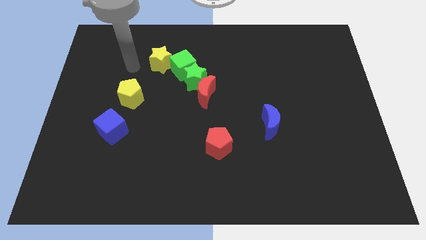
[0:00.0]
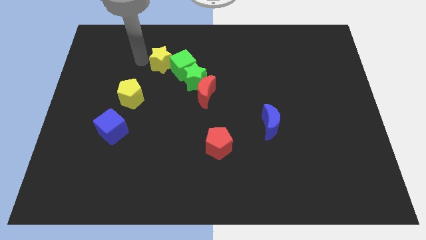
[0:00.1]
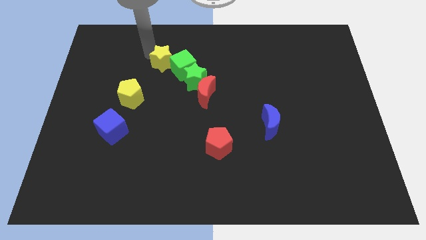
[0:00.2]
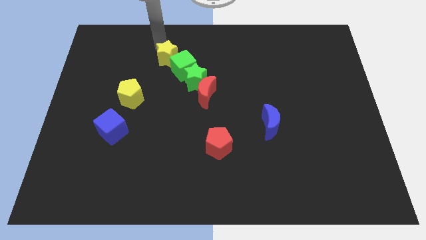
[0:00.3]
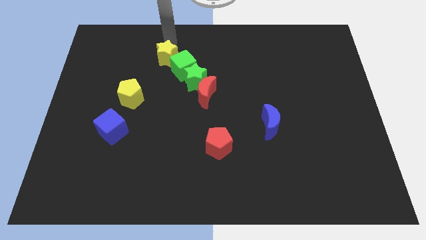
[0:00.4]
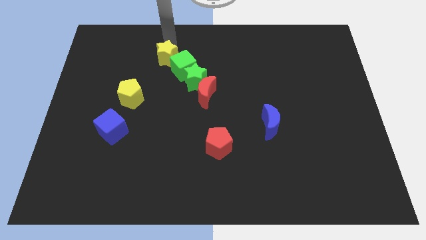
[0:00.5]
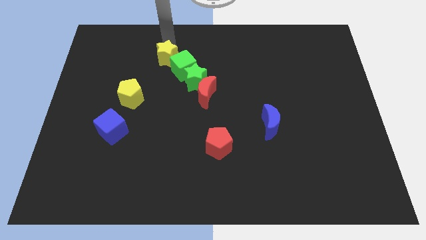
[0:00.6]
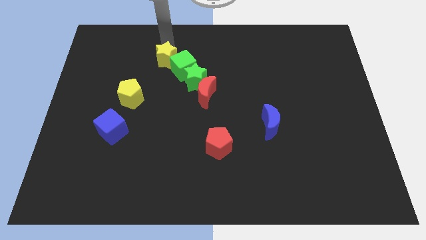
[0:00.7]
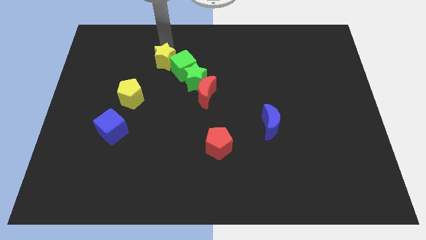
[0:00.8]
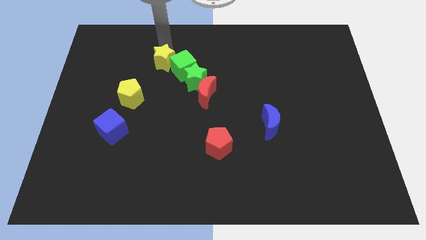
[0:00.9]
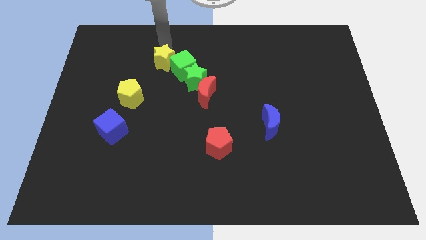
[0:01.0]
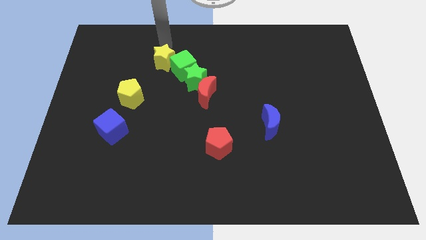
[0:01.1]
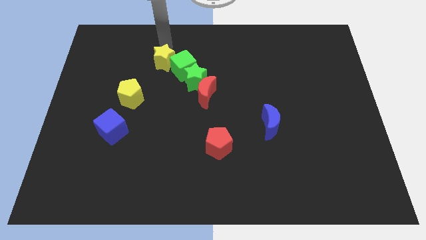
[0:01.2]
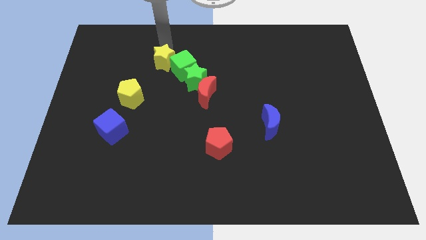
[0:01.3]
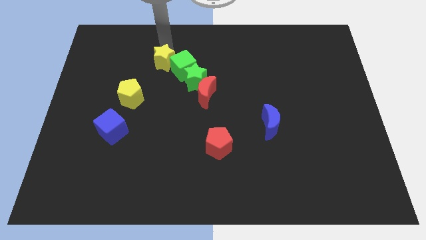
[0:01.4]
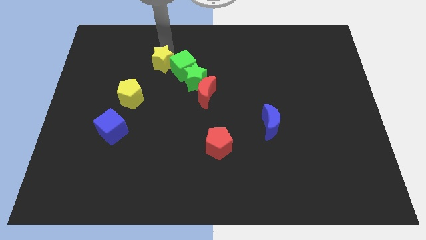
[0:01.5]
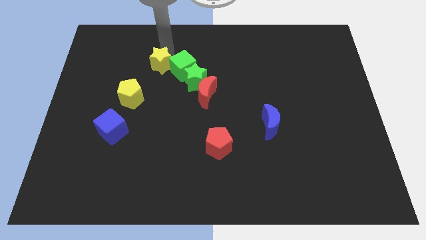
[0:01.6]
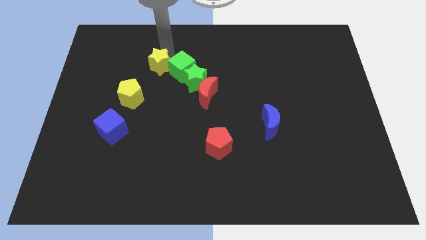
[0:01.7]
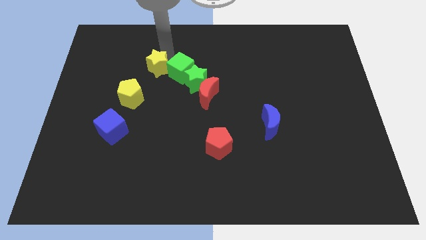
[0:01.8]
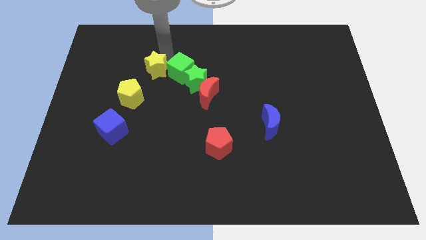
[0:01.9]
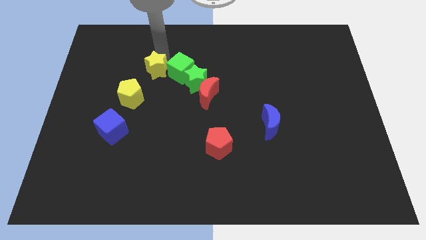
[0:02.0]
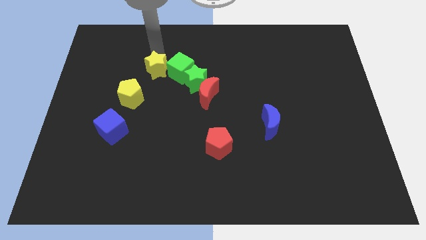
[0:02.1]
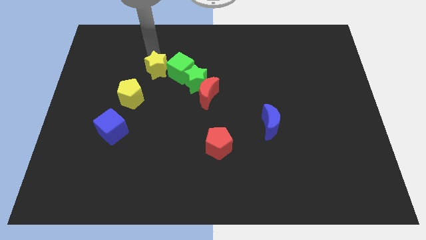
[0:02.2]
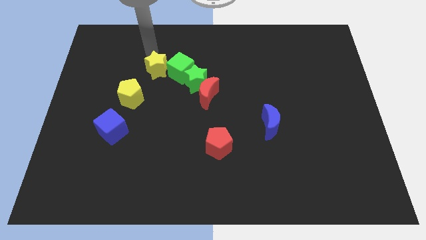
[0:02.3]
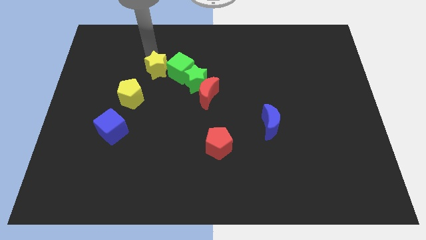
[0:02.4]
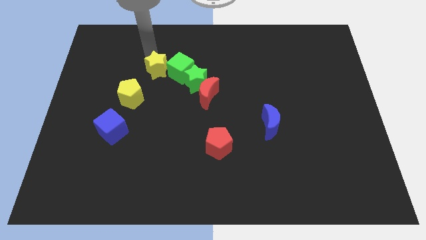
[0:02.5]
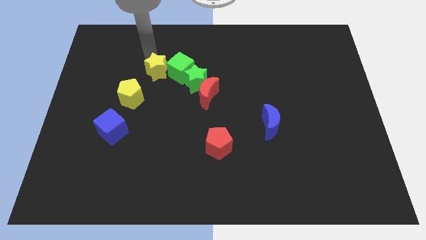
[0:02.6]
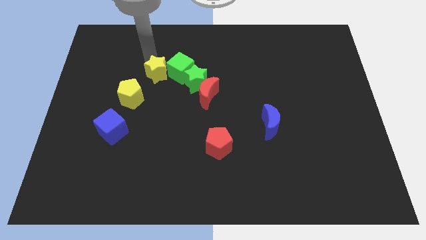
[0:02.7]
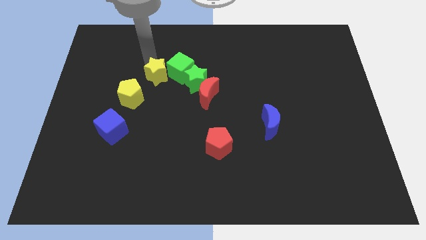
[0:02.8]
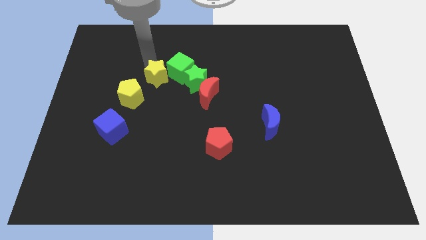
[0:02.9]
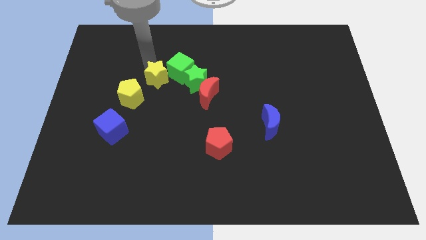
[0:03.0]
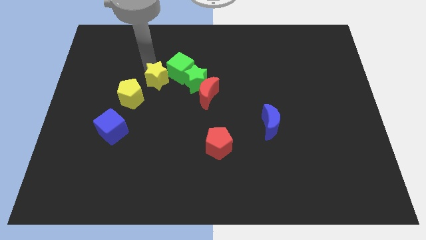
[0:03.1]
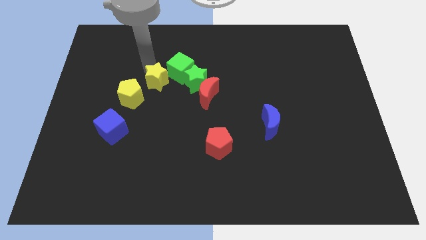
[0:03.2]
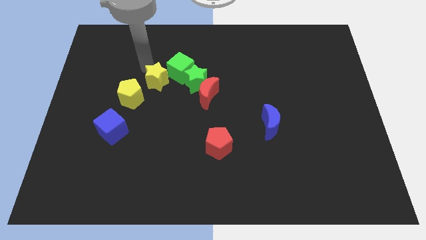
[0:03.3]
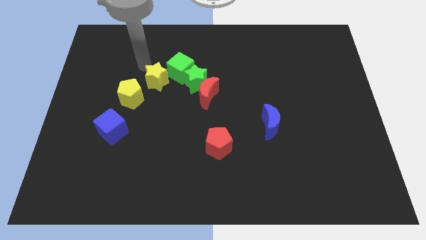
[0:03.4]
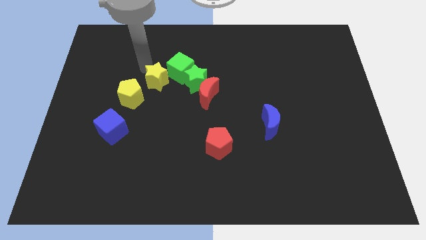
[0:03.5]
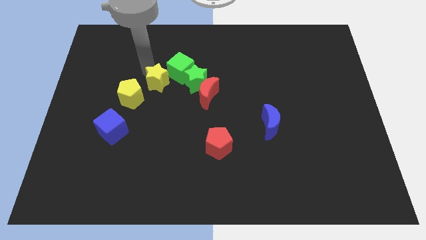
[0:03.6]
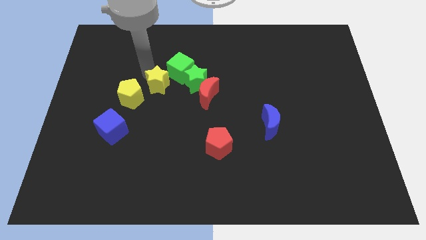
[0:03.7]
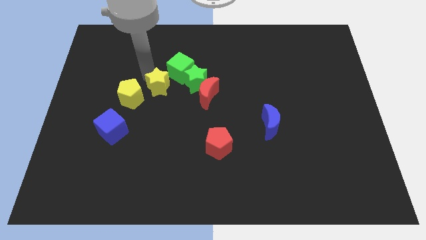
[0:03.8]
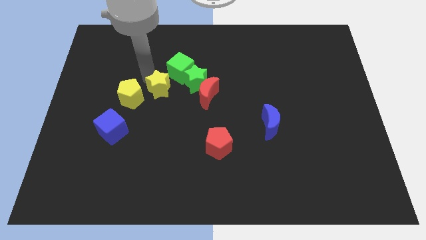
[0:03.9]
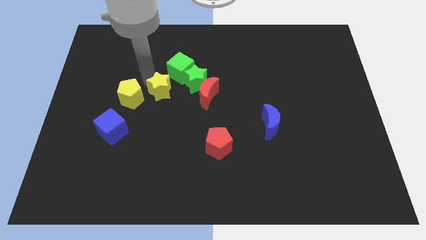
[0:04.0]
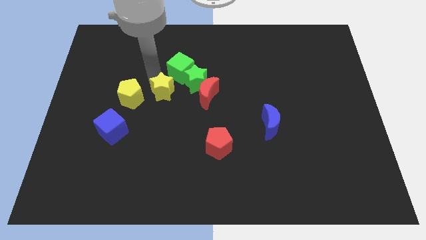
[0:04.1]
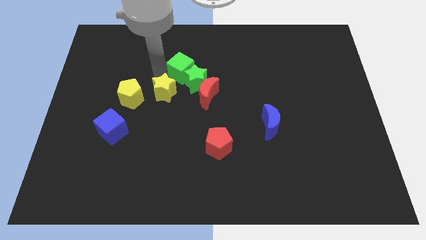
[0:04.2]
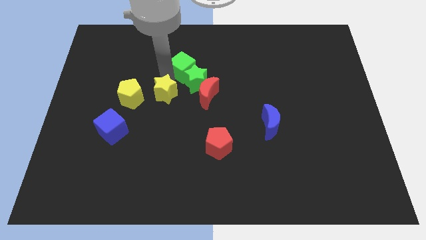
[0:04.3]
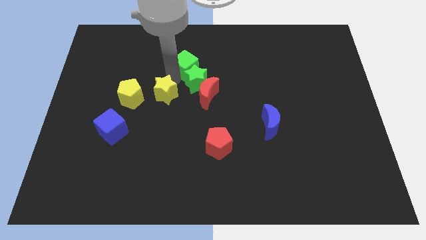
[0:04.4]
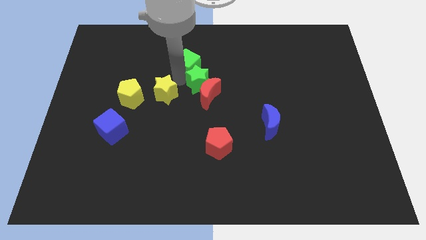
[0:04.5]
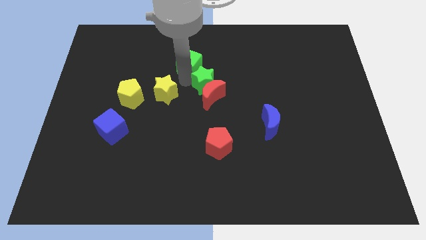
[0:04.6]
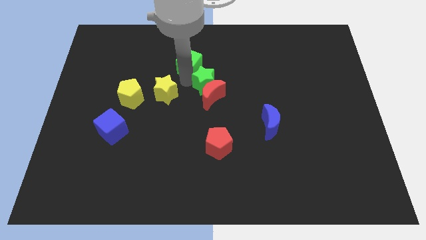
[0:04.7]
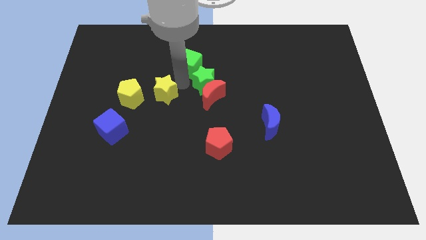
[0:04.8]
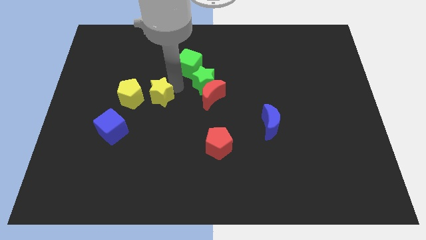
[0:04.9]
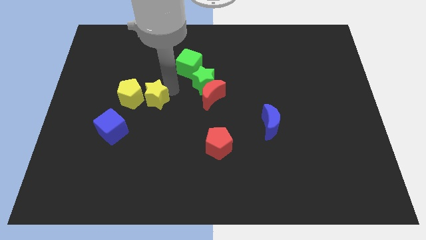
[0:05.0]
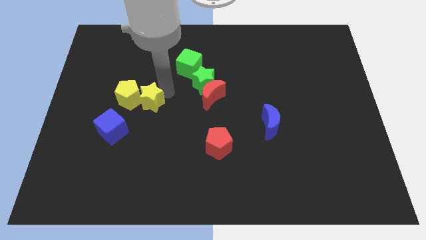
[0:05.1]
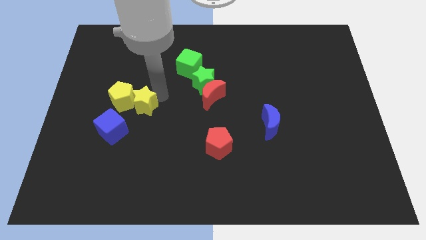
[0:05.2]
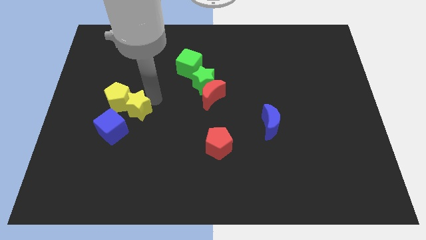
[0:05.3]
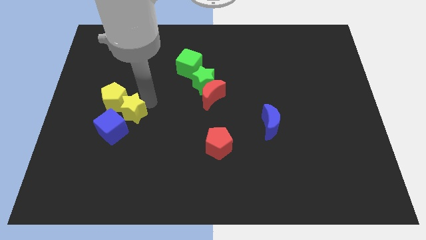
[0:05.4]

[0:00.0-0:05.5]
put the yellow star next to the blue cube

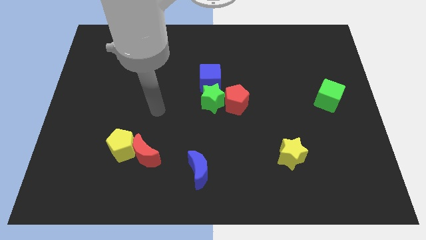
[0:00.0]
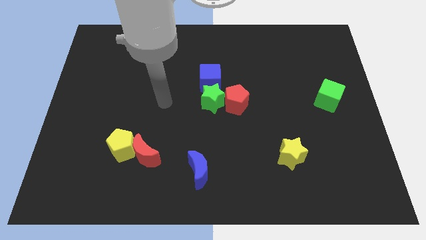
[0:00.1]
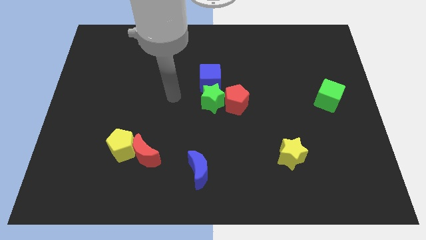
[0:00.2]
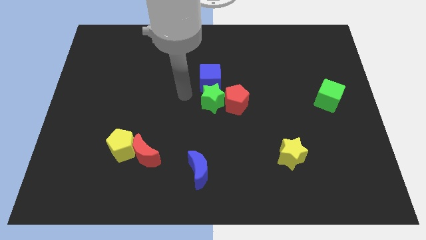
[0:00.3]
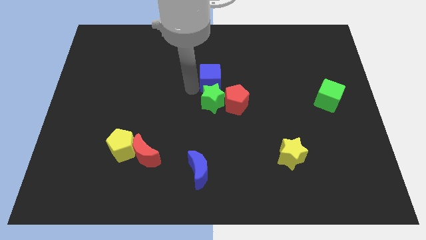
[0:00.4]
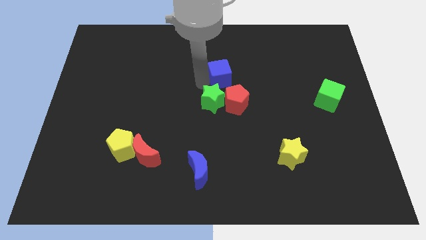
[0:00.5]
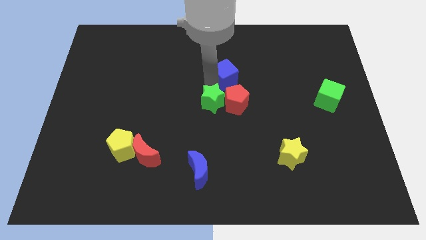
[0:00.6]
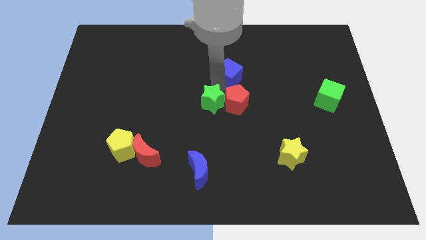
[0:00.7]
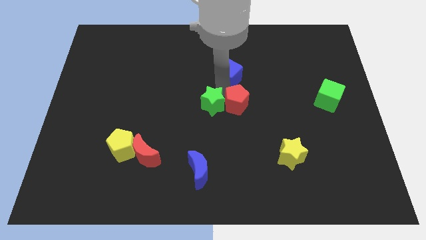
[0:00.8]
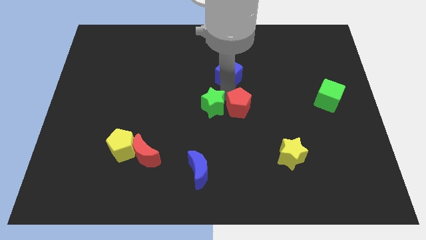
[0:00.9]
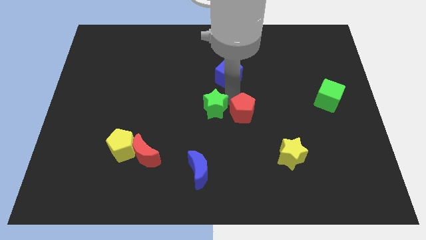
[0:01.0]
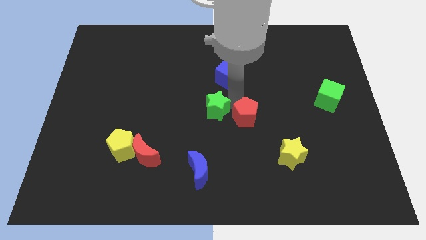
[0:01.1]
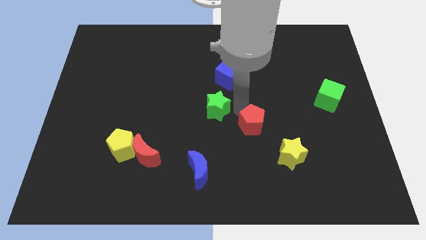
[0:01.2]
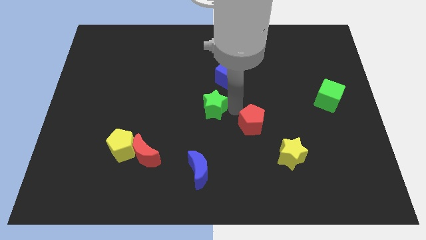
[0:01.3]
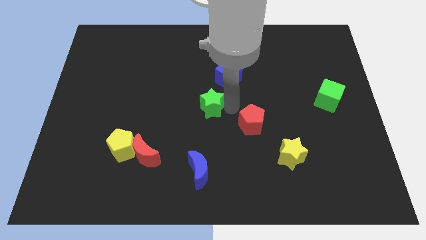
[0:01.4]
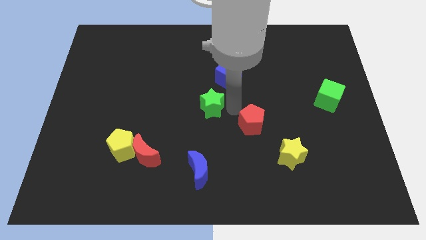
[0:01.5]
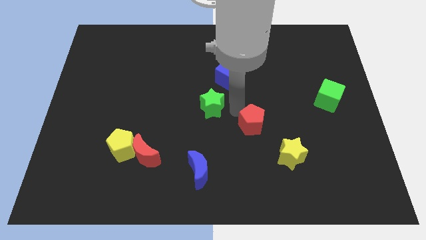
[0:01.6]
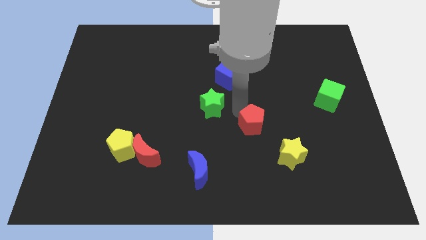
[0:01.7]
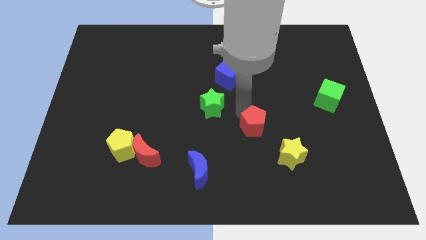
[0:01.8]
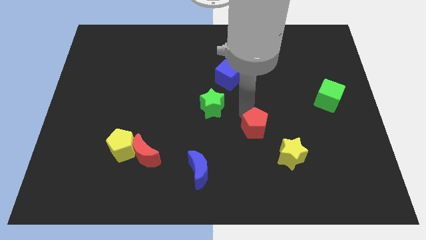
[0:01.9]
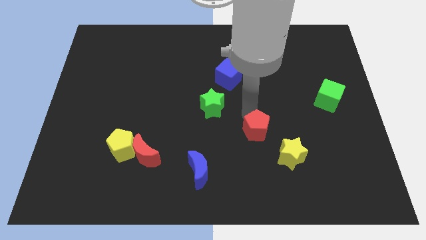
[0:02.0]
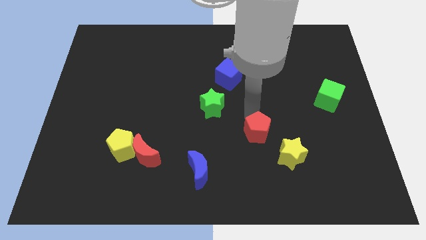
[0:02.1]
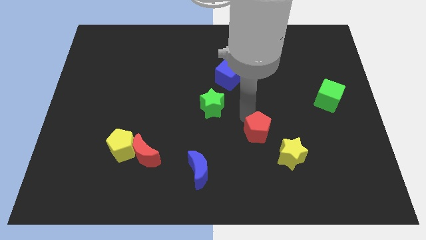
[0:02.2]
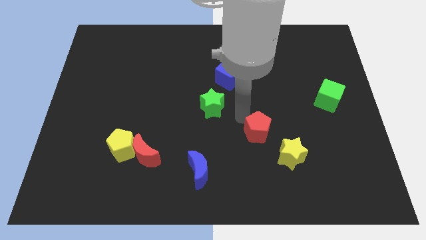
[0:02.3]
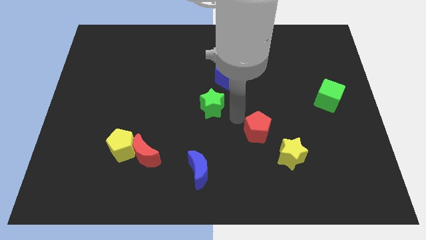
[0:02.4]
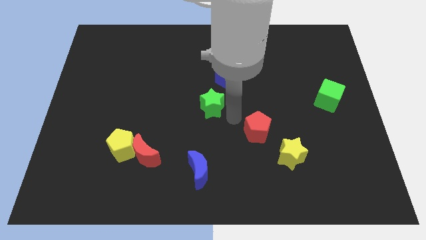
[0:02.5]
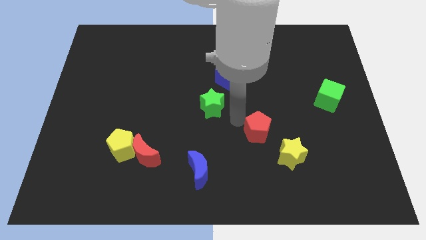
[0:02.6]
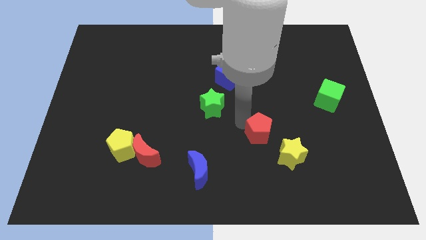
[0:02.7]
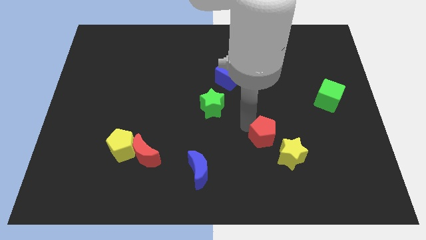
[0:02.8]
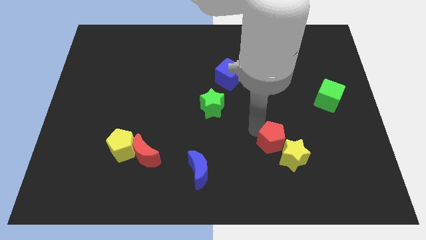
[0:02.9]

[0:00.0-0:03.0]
move the red pentagon close to the yellow star
